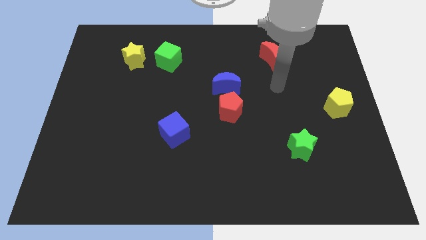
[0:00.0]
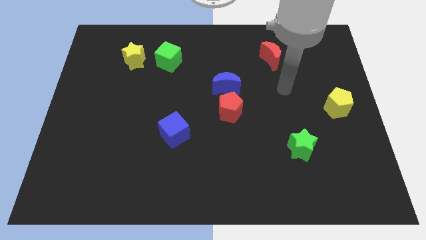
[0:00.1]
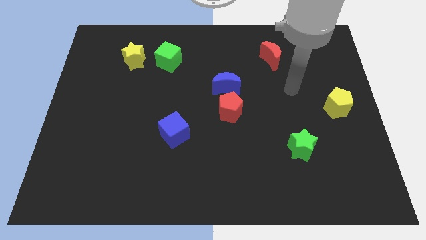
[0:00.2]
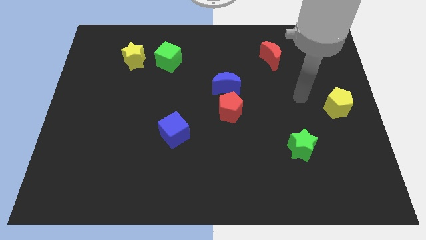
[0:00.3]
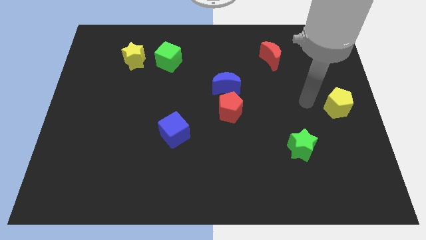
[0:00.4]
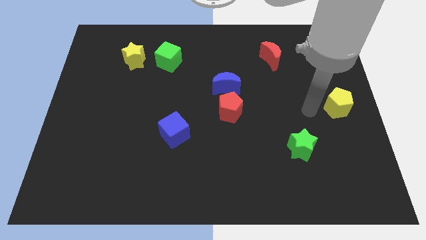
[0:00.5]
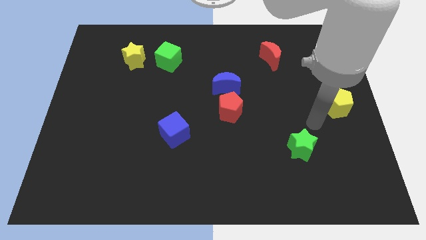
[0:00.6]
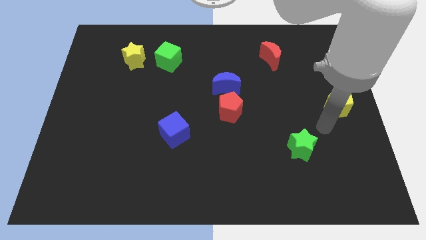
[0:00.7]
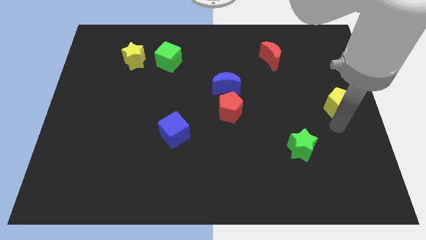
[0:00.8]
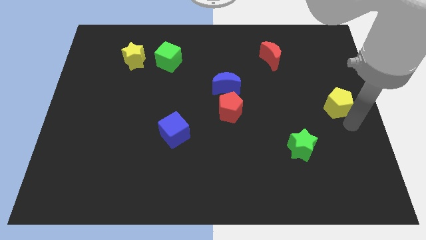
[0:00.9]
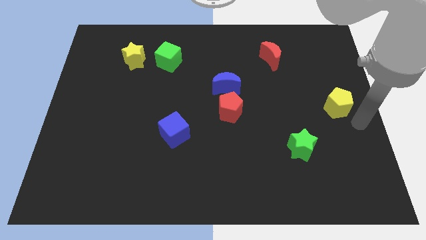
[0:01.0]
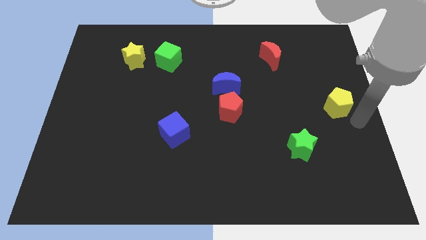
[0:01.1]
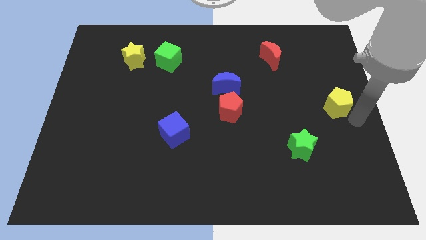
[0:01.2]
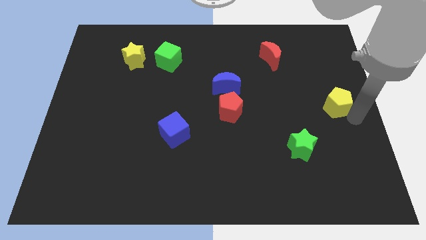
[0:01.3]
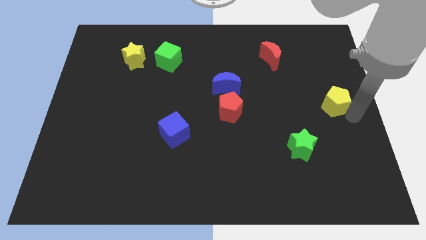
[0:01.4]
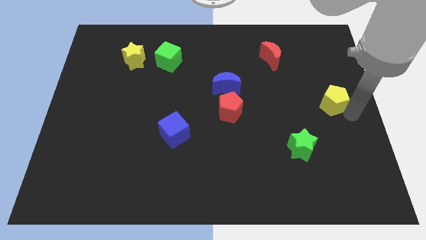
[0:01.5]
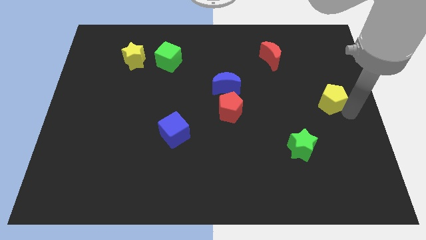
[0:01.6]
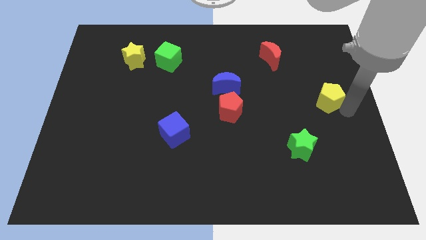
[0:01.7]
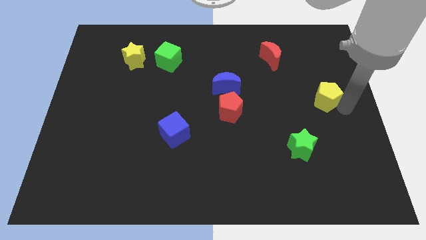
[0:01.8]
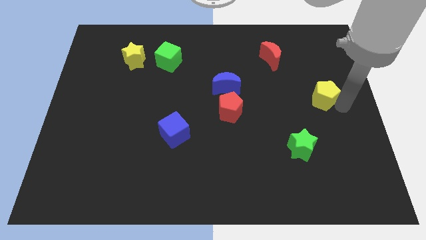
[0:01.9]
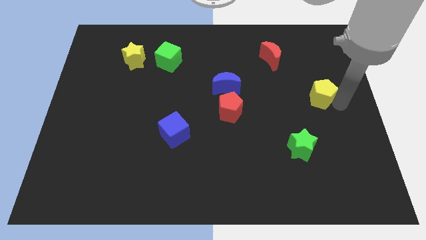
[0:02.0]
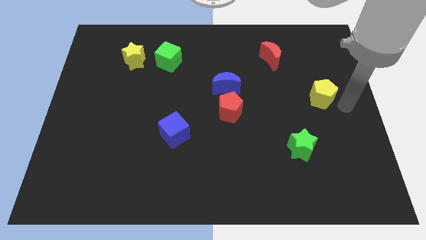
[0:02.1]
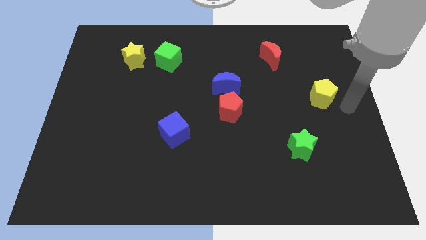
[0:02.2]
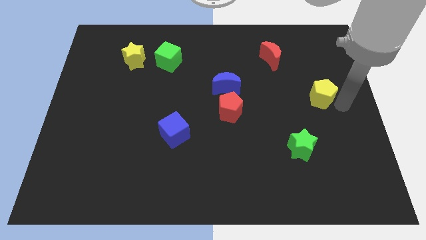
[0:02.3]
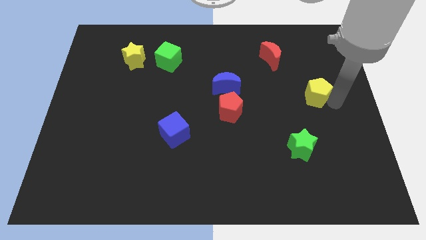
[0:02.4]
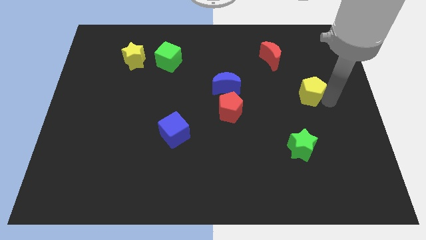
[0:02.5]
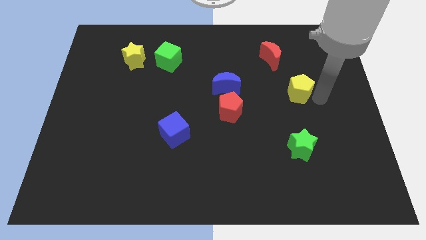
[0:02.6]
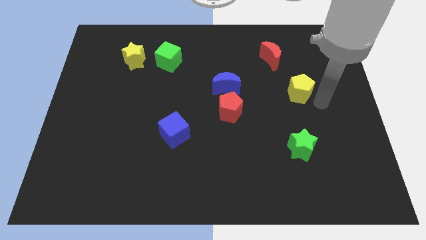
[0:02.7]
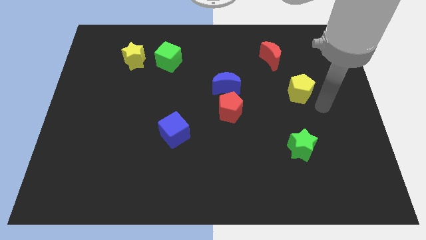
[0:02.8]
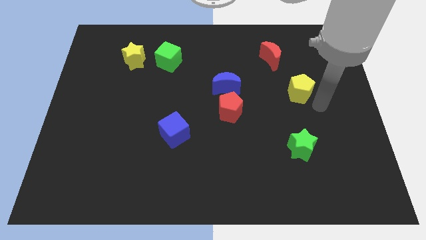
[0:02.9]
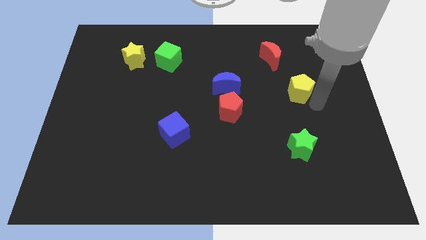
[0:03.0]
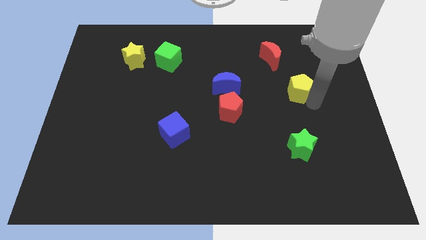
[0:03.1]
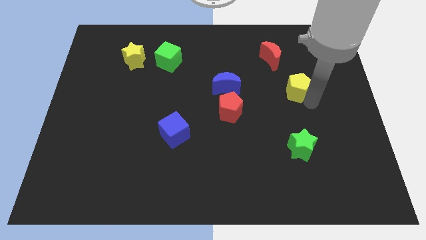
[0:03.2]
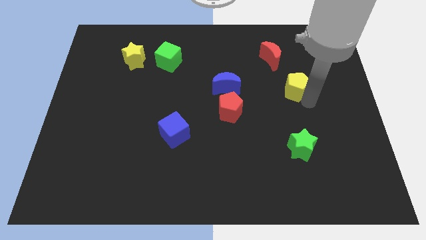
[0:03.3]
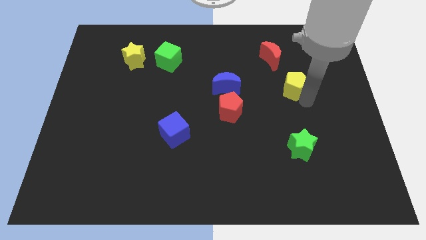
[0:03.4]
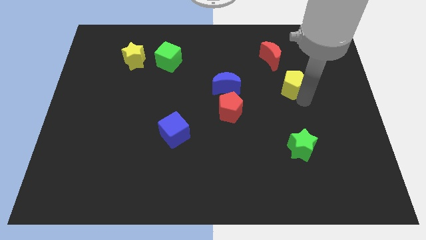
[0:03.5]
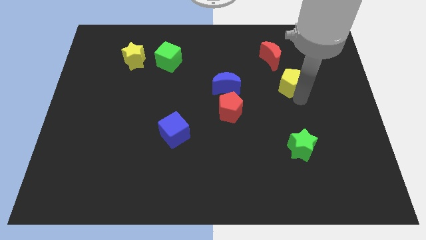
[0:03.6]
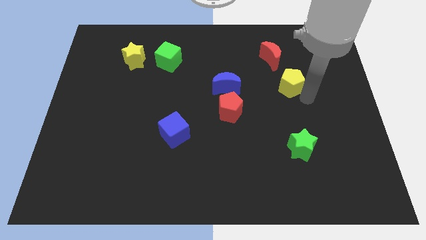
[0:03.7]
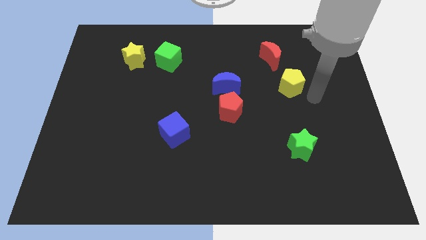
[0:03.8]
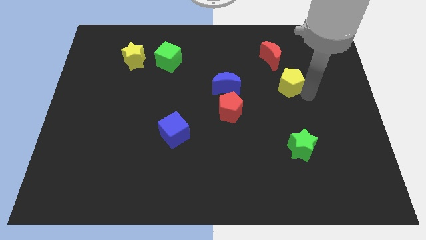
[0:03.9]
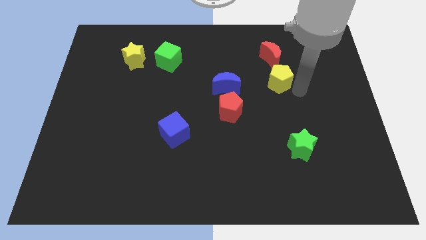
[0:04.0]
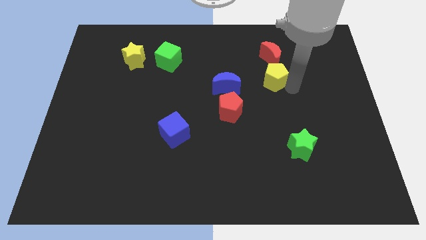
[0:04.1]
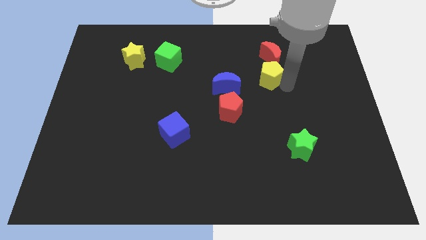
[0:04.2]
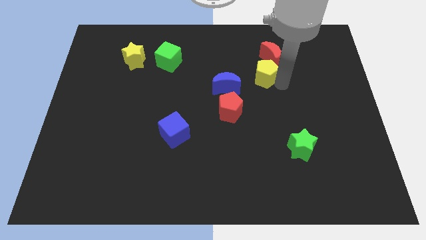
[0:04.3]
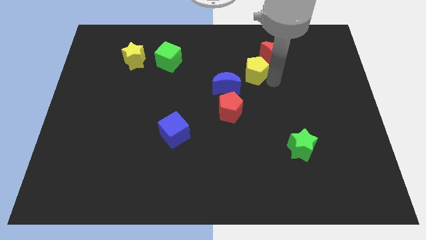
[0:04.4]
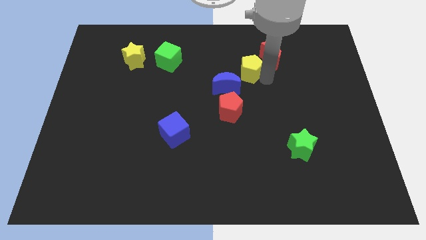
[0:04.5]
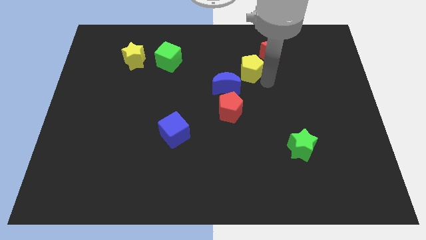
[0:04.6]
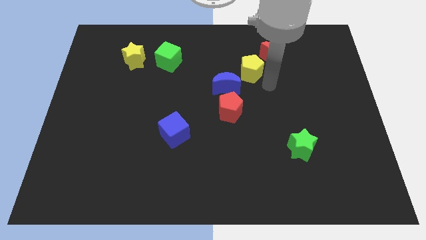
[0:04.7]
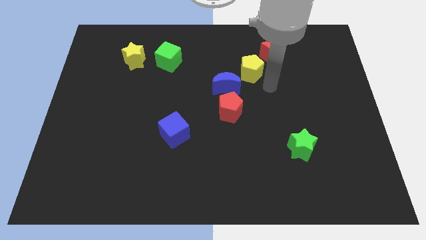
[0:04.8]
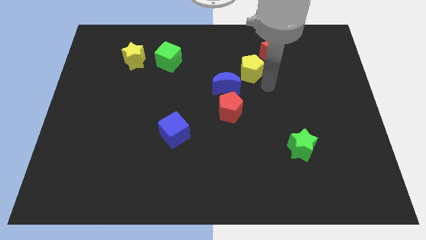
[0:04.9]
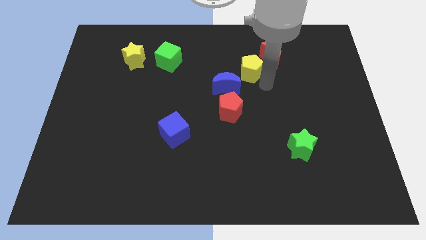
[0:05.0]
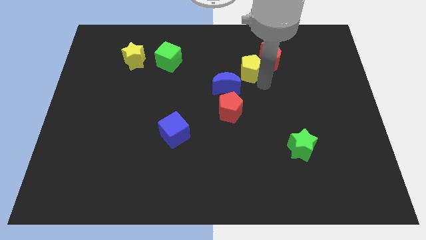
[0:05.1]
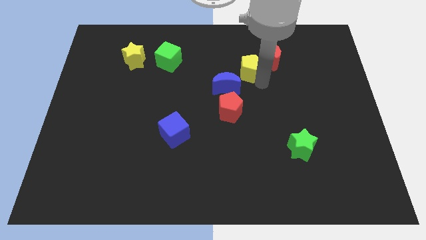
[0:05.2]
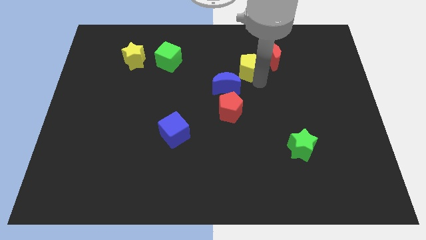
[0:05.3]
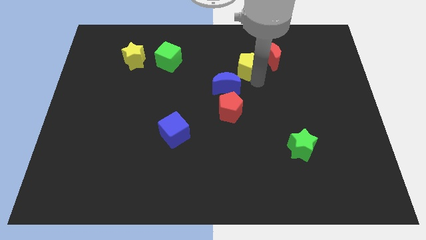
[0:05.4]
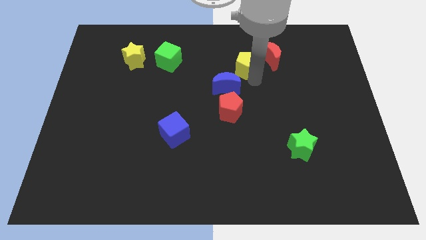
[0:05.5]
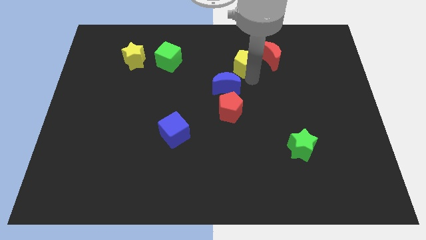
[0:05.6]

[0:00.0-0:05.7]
push the yellow pentagon to the top of the blue moon
